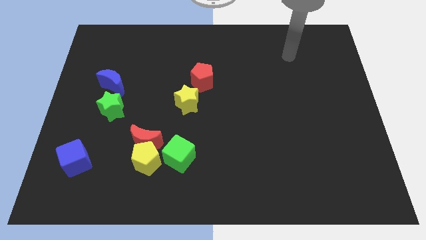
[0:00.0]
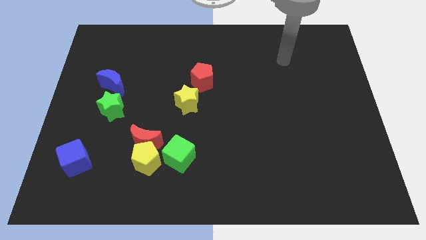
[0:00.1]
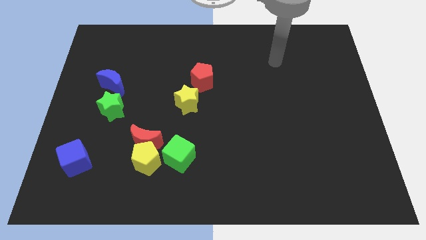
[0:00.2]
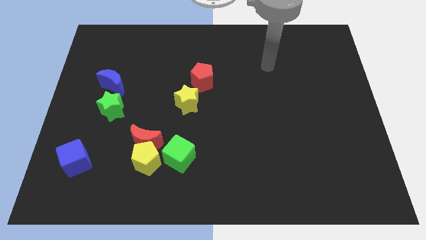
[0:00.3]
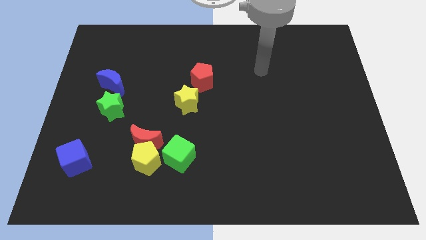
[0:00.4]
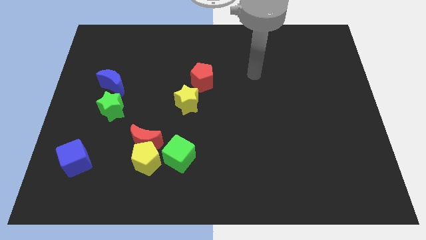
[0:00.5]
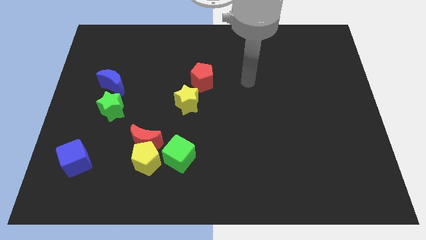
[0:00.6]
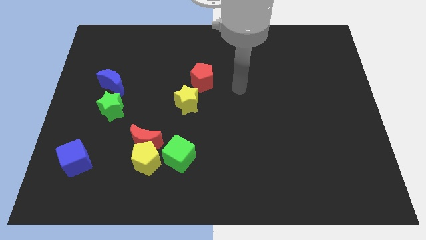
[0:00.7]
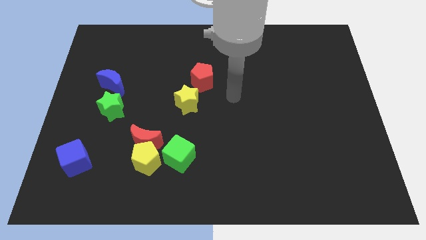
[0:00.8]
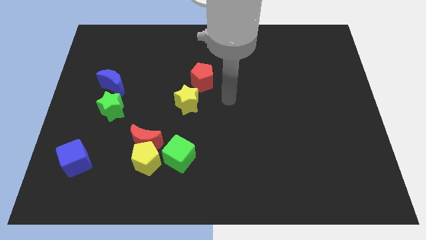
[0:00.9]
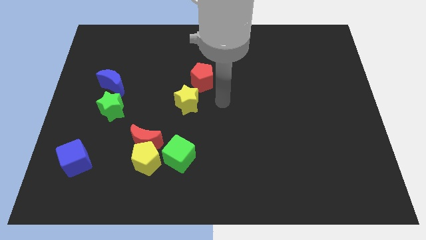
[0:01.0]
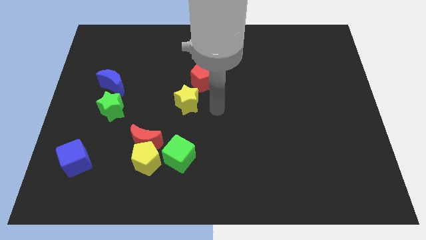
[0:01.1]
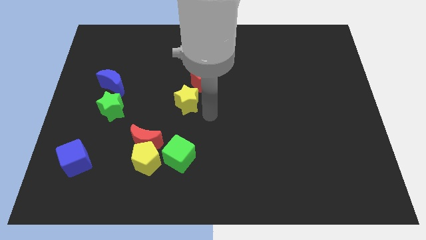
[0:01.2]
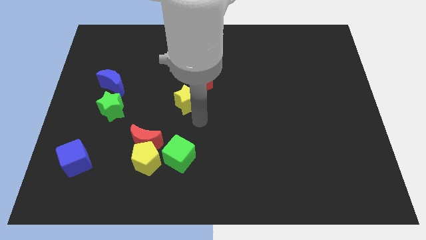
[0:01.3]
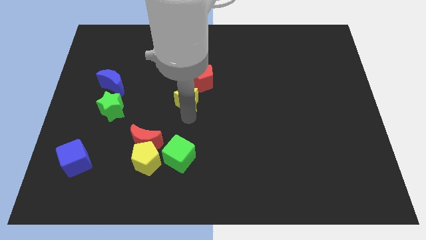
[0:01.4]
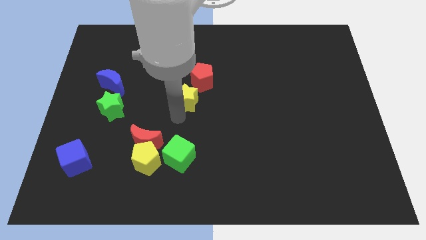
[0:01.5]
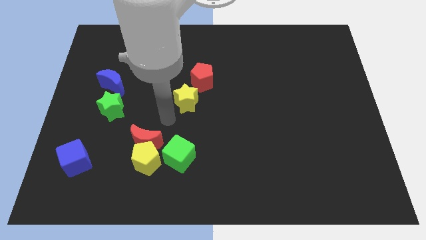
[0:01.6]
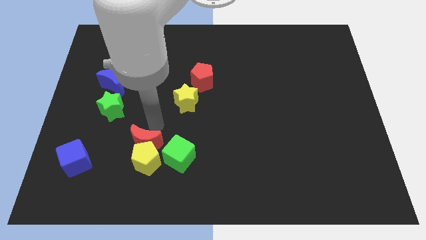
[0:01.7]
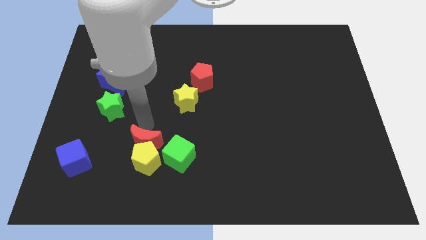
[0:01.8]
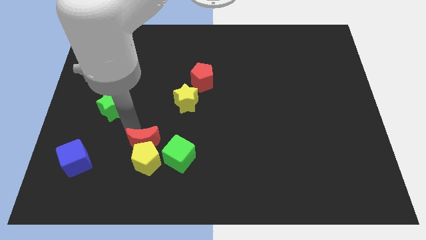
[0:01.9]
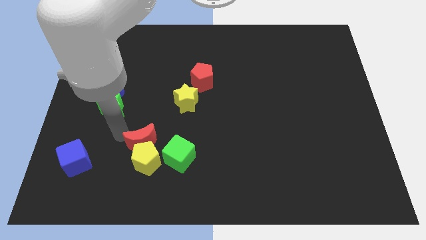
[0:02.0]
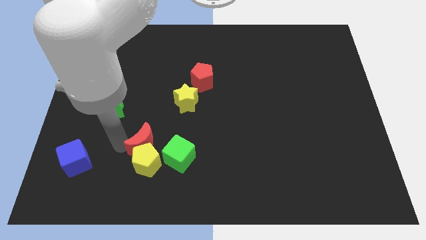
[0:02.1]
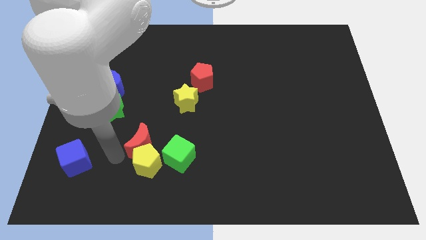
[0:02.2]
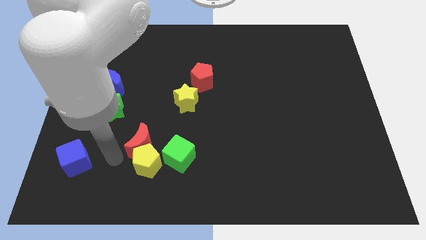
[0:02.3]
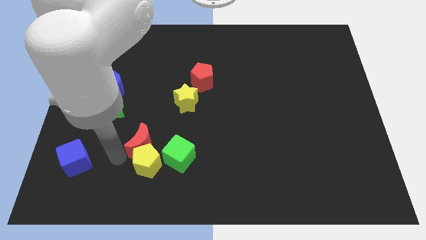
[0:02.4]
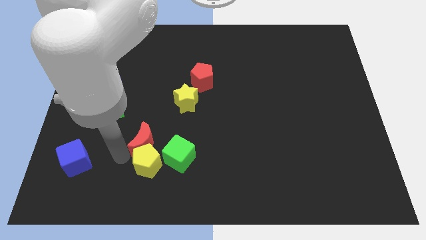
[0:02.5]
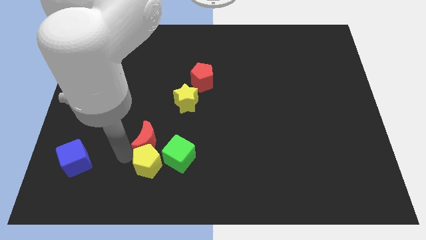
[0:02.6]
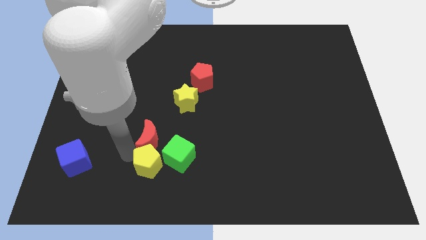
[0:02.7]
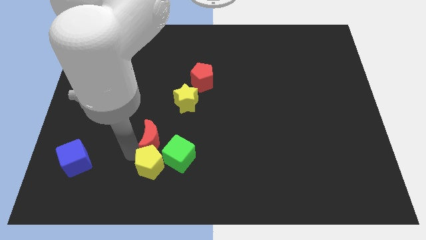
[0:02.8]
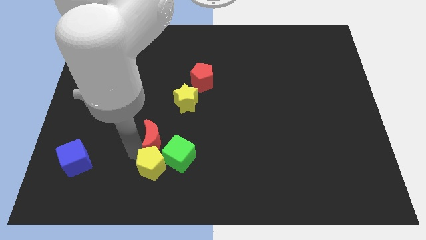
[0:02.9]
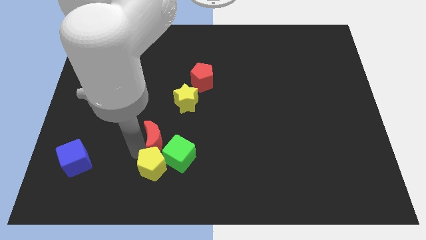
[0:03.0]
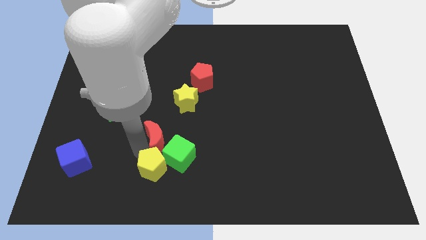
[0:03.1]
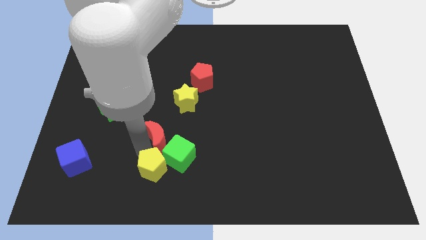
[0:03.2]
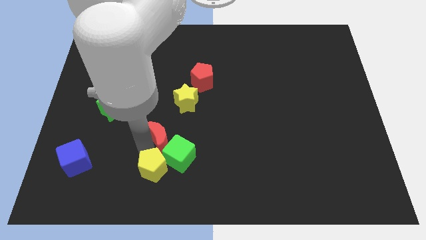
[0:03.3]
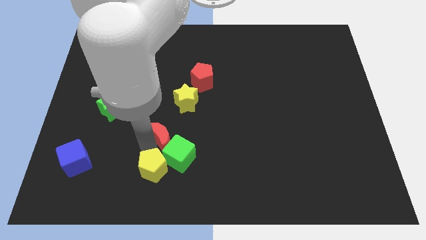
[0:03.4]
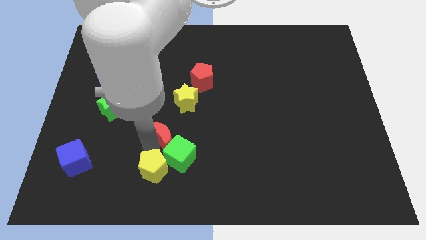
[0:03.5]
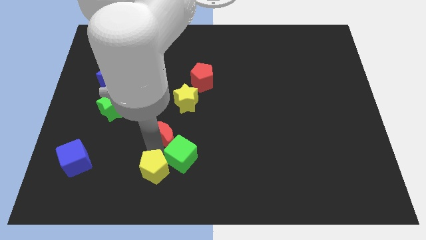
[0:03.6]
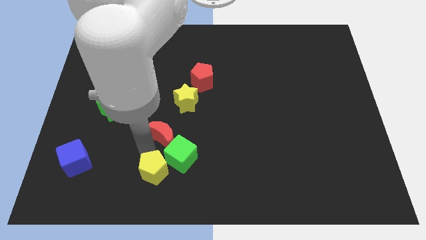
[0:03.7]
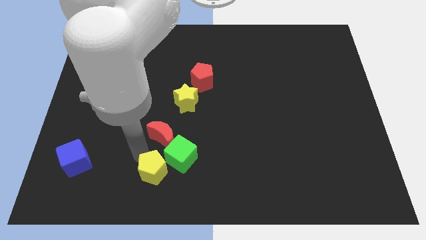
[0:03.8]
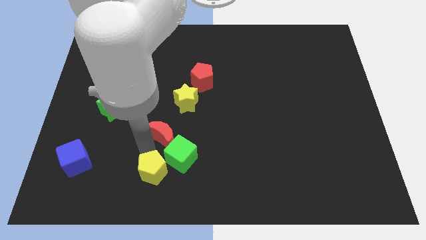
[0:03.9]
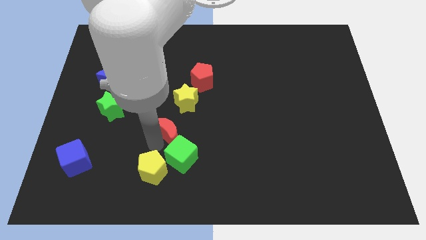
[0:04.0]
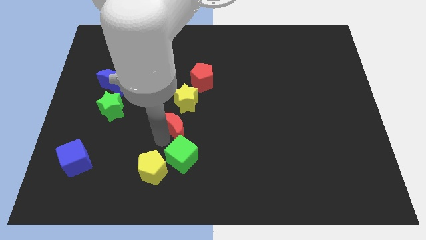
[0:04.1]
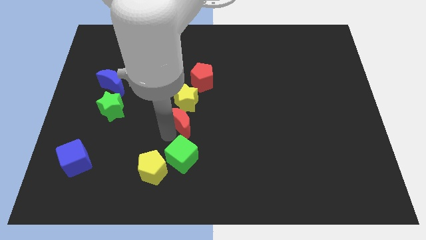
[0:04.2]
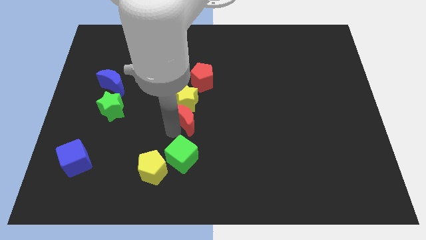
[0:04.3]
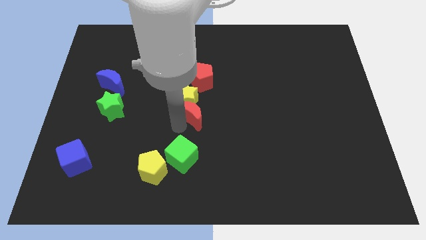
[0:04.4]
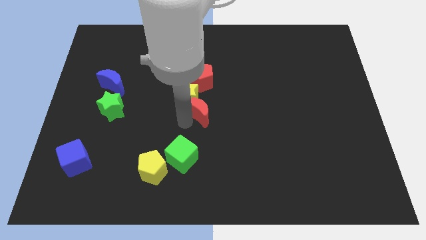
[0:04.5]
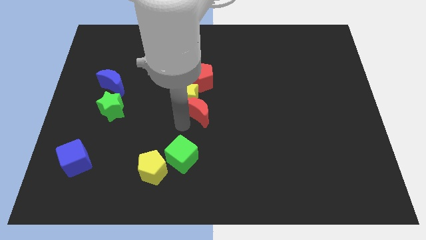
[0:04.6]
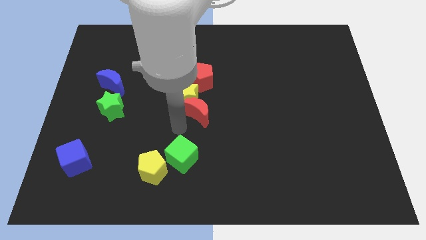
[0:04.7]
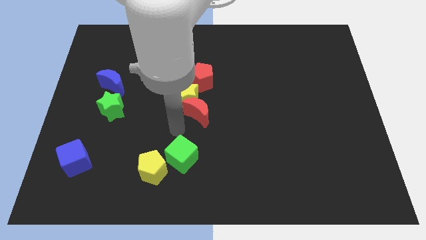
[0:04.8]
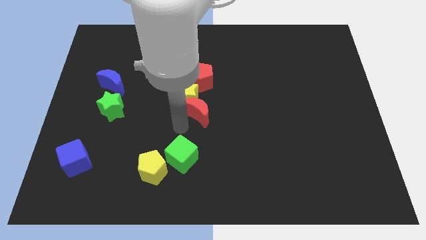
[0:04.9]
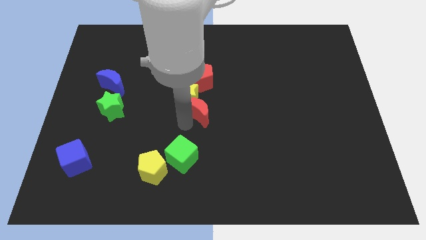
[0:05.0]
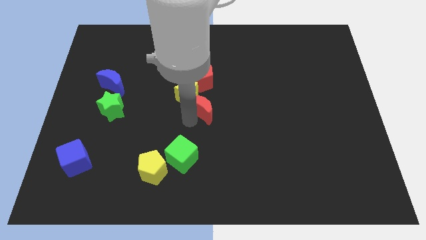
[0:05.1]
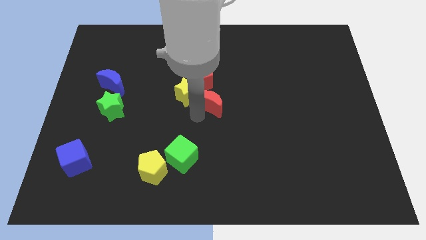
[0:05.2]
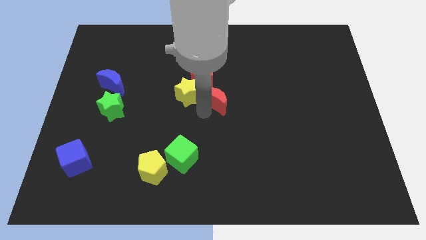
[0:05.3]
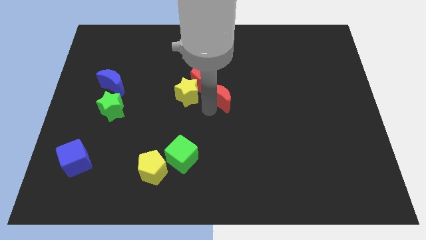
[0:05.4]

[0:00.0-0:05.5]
push the red moon diagonally upwards and to the right

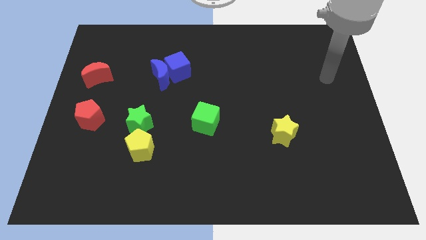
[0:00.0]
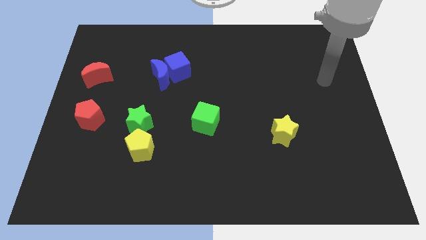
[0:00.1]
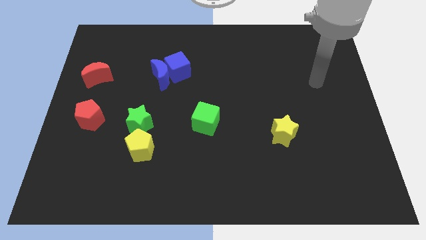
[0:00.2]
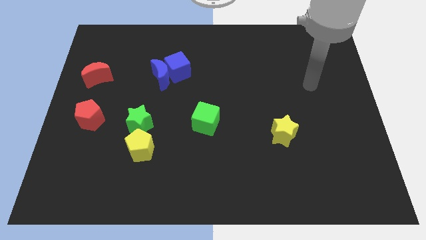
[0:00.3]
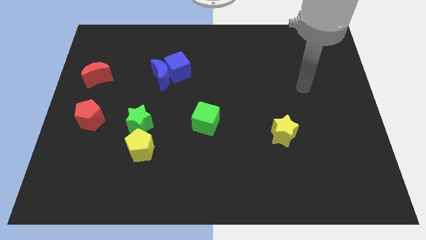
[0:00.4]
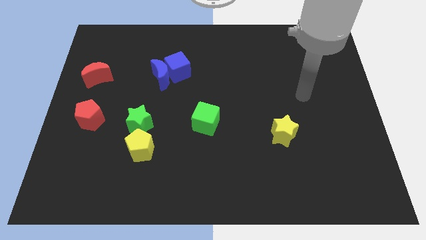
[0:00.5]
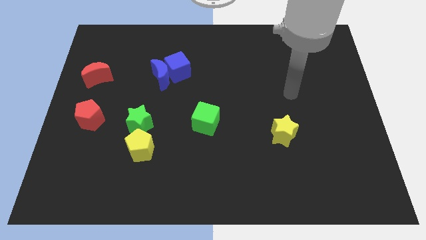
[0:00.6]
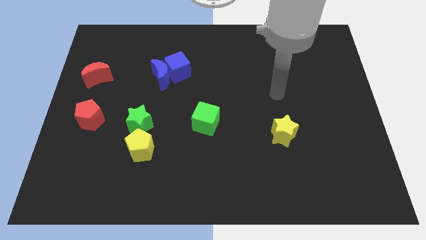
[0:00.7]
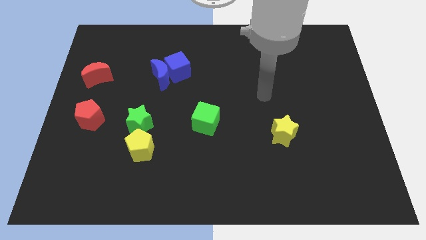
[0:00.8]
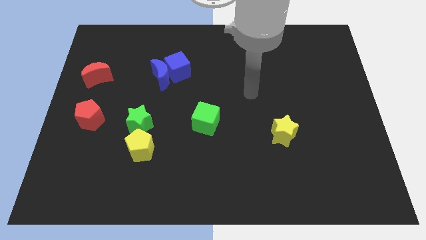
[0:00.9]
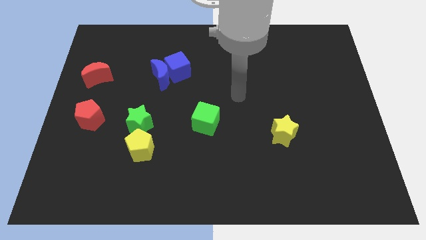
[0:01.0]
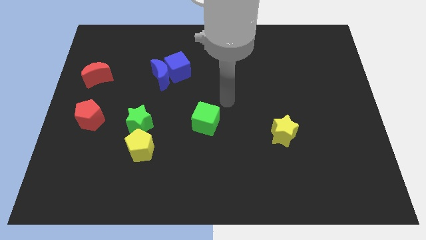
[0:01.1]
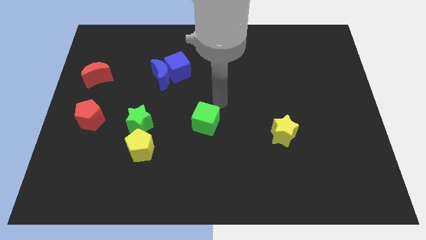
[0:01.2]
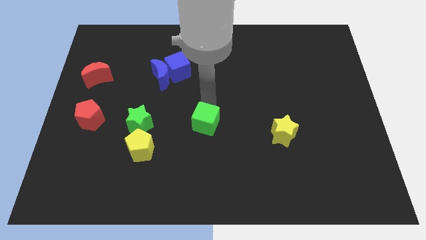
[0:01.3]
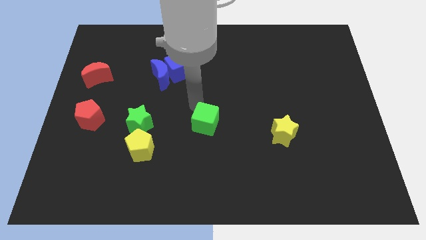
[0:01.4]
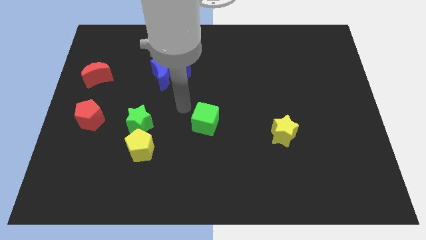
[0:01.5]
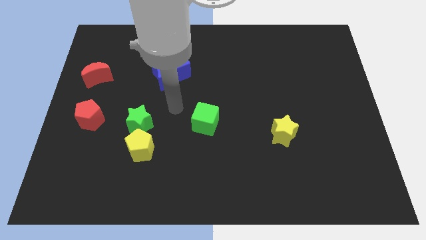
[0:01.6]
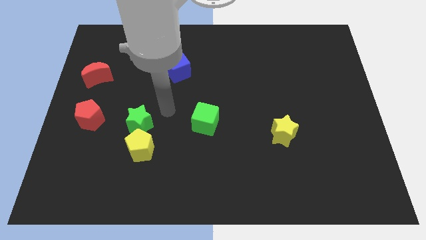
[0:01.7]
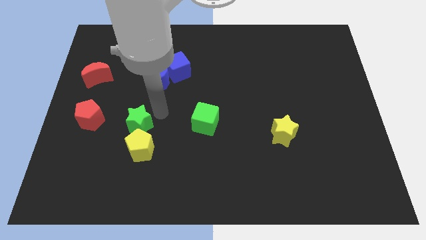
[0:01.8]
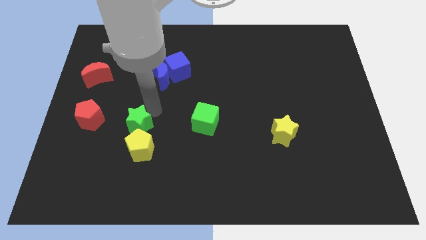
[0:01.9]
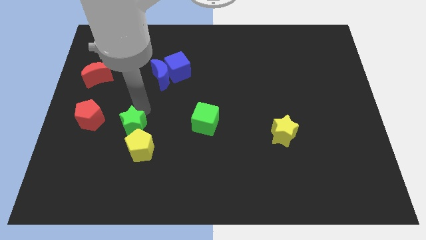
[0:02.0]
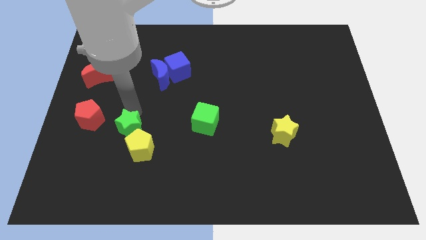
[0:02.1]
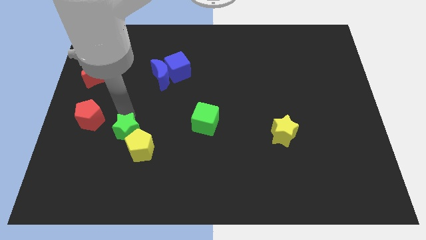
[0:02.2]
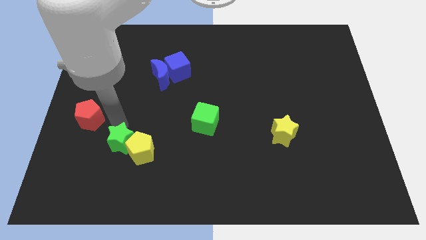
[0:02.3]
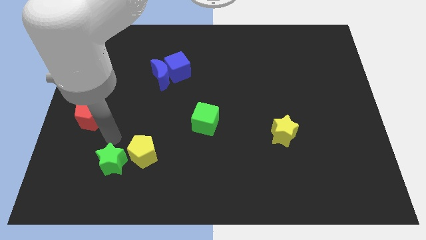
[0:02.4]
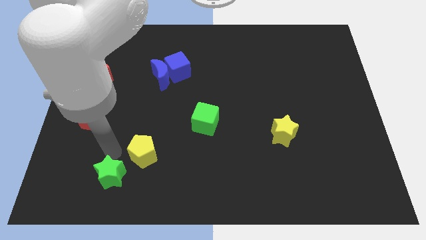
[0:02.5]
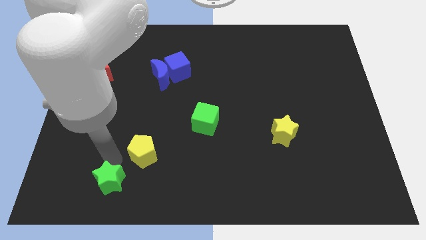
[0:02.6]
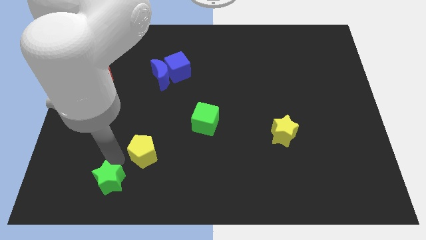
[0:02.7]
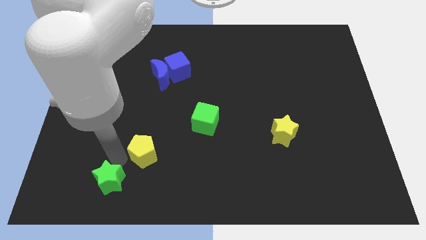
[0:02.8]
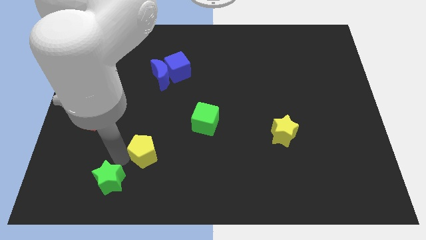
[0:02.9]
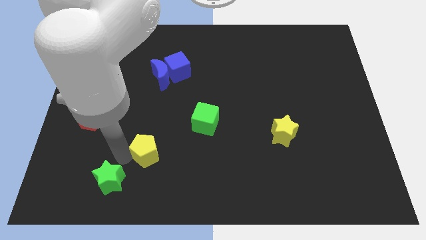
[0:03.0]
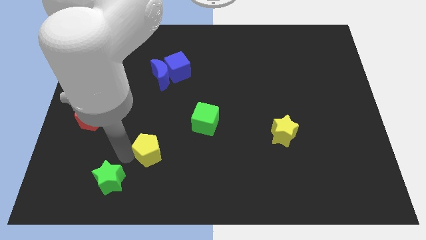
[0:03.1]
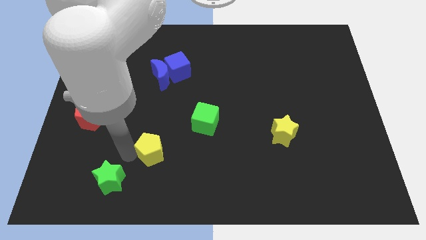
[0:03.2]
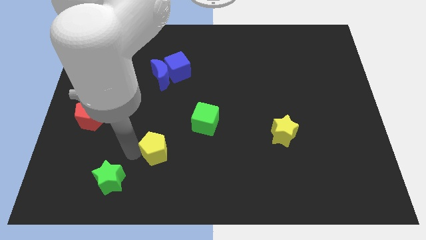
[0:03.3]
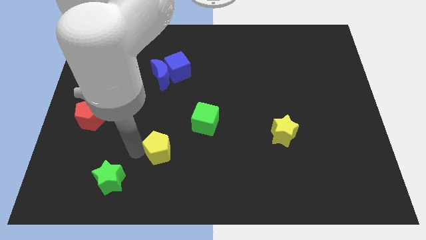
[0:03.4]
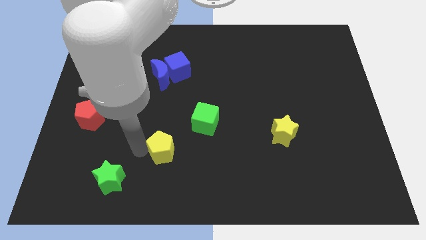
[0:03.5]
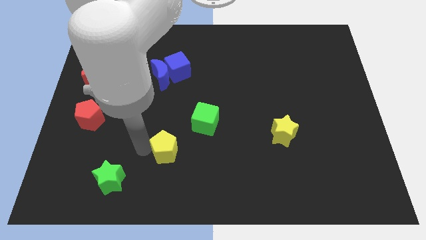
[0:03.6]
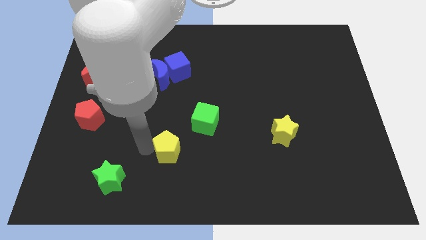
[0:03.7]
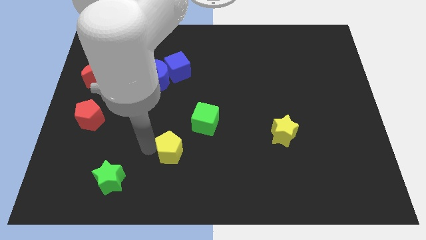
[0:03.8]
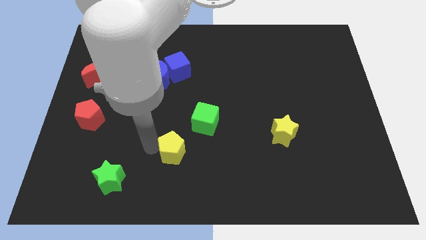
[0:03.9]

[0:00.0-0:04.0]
push the yellow pentagon a little bit right
